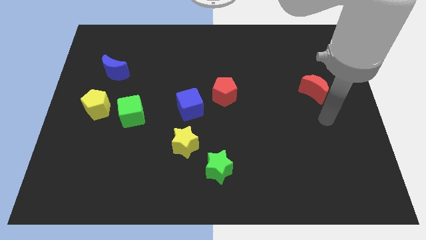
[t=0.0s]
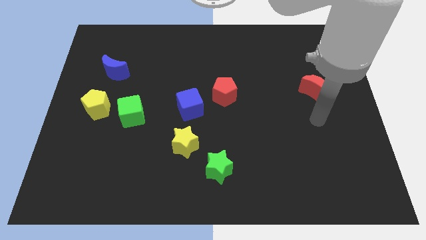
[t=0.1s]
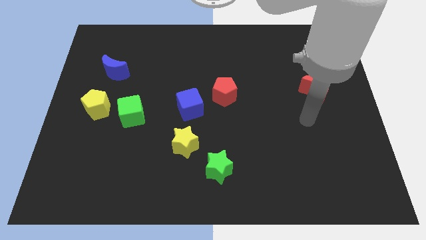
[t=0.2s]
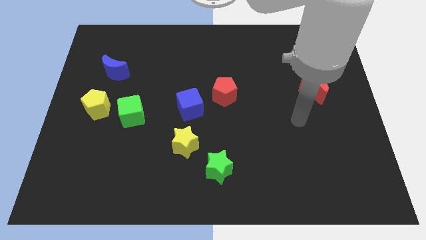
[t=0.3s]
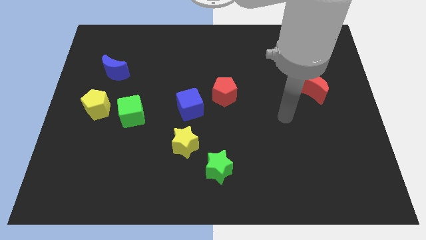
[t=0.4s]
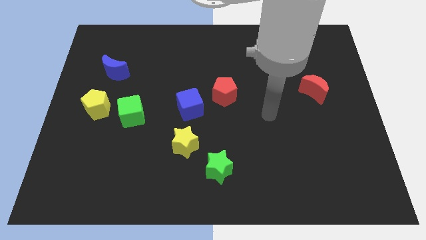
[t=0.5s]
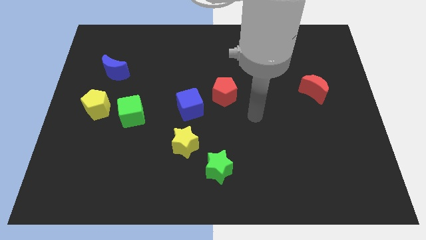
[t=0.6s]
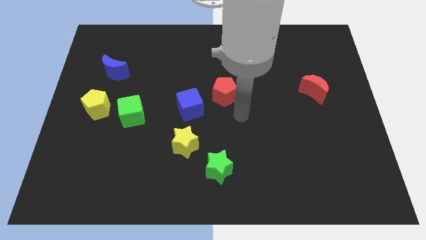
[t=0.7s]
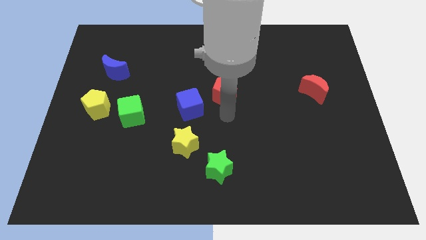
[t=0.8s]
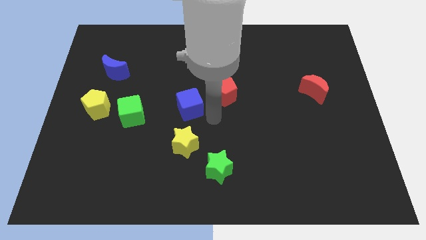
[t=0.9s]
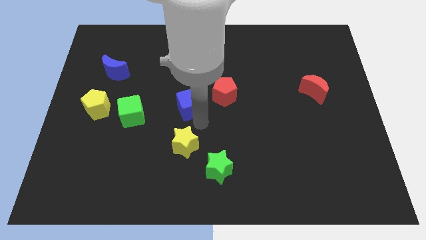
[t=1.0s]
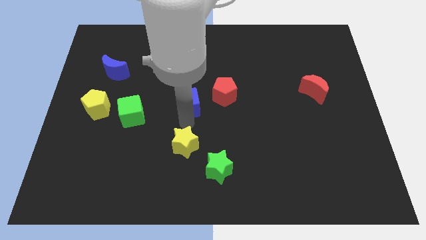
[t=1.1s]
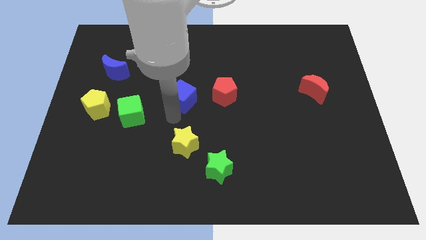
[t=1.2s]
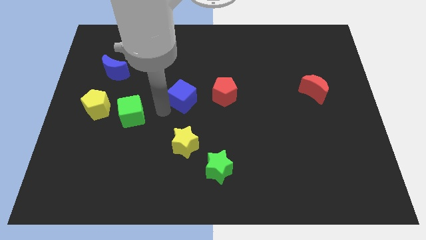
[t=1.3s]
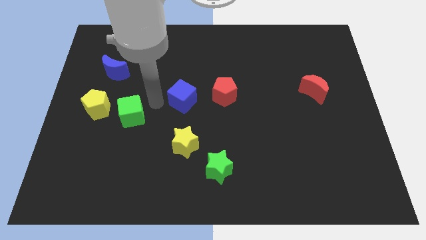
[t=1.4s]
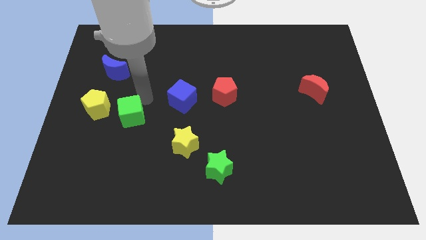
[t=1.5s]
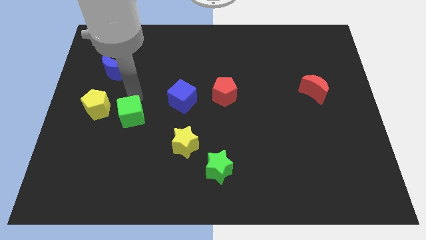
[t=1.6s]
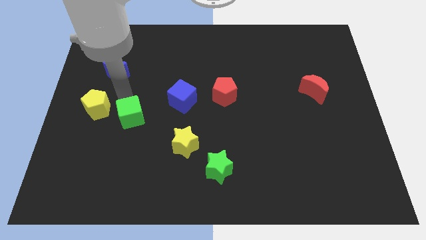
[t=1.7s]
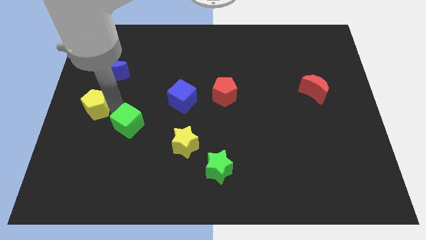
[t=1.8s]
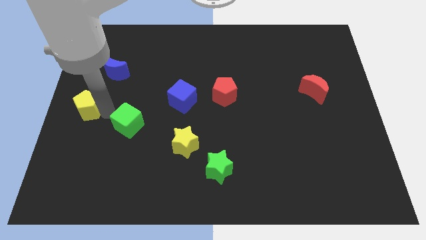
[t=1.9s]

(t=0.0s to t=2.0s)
move the green cube away from the yellow pentagon

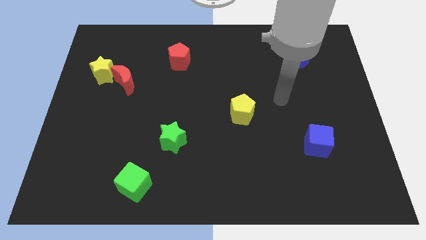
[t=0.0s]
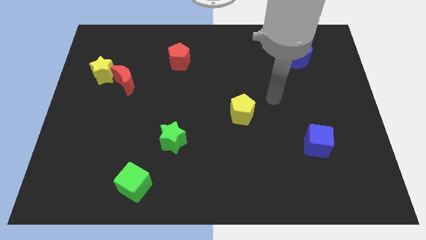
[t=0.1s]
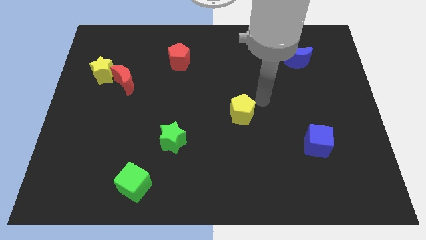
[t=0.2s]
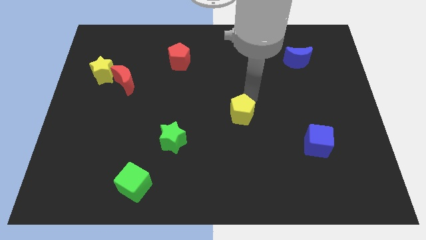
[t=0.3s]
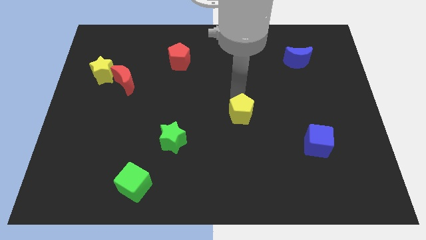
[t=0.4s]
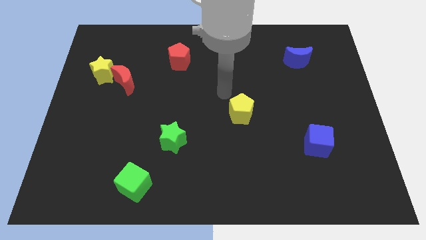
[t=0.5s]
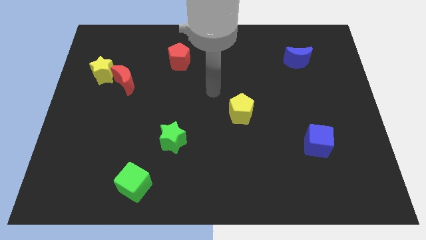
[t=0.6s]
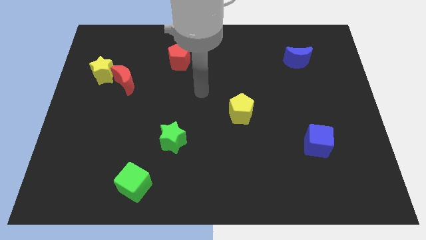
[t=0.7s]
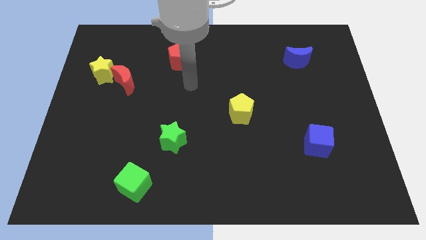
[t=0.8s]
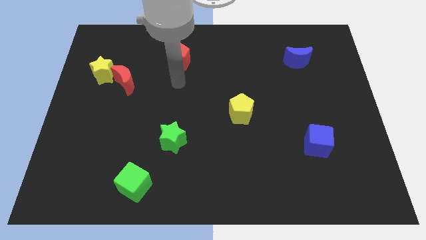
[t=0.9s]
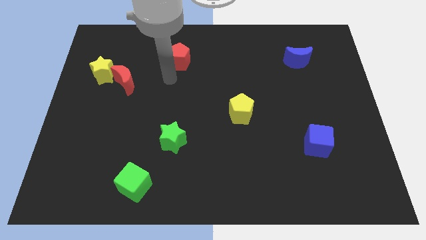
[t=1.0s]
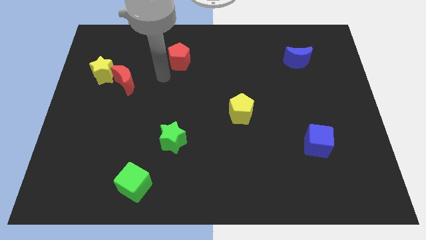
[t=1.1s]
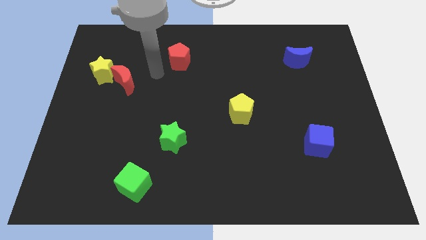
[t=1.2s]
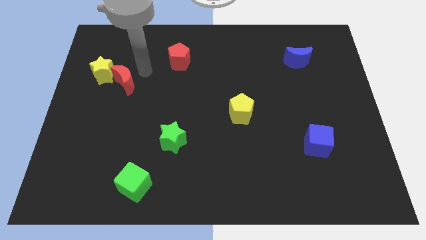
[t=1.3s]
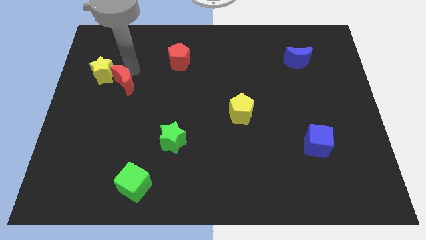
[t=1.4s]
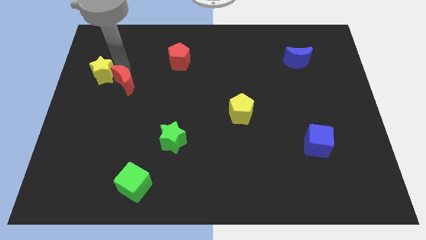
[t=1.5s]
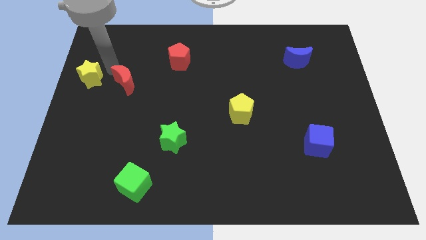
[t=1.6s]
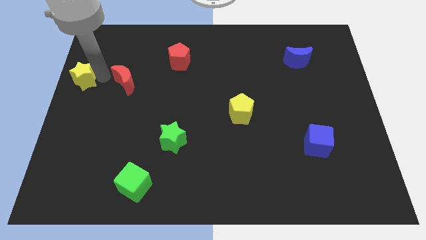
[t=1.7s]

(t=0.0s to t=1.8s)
pull the red moon apart from the yellow star

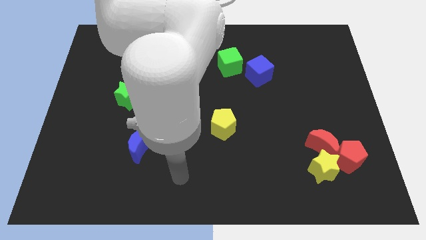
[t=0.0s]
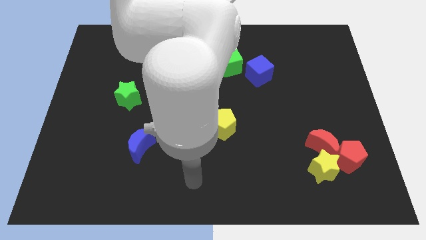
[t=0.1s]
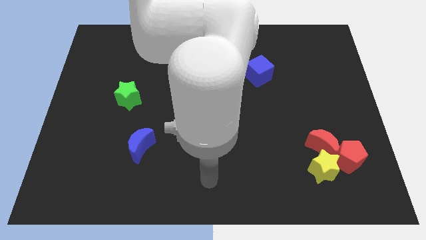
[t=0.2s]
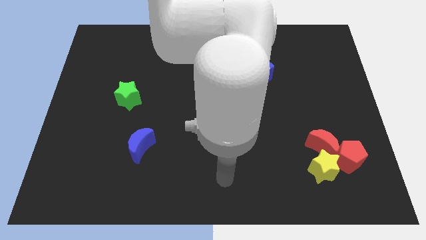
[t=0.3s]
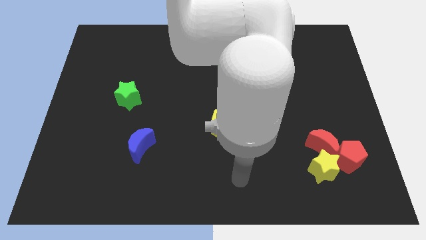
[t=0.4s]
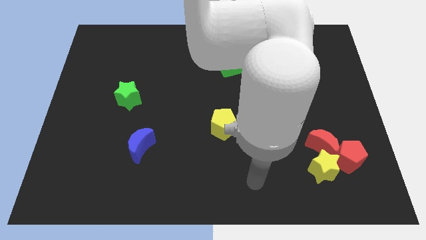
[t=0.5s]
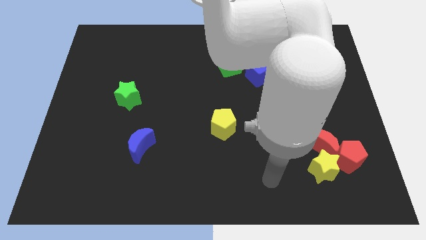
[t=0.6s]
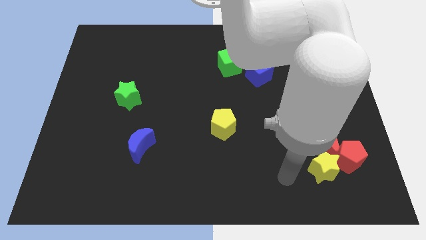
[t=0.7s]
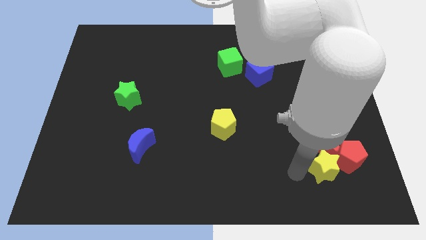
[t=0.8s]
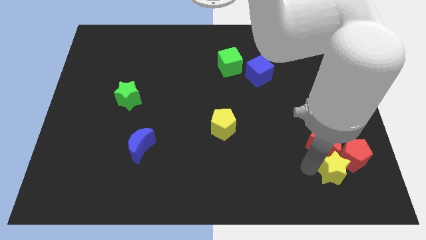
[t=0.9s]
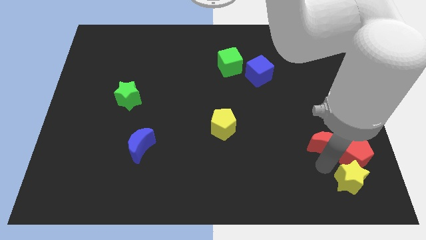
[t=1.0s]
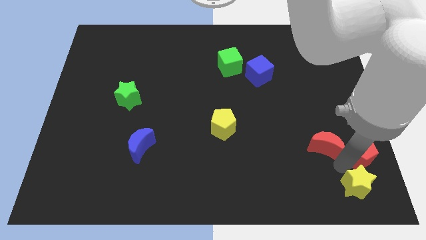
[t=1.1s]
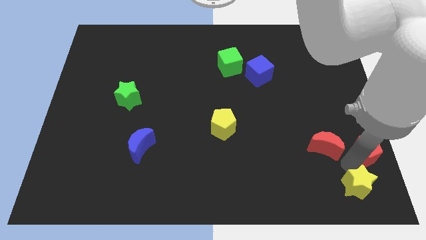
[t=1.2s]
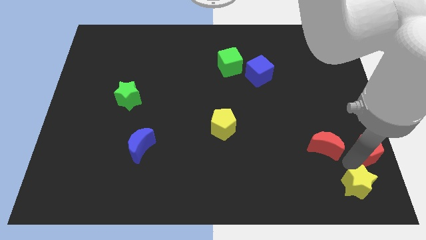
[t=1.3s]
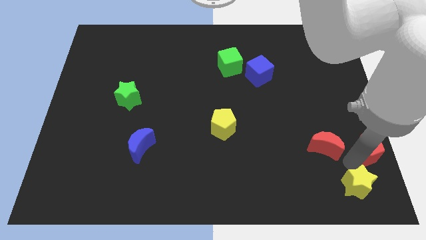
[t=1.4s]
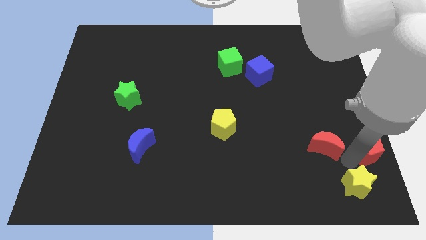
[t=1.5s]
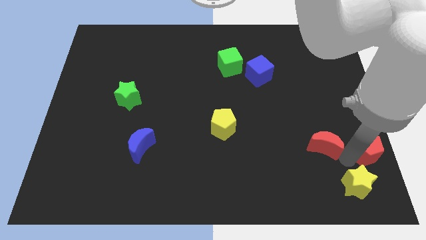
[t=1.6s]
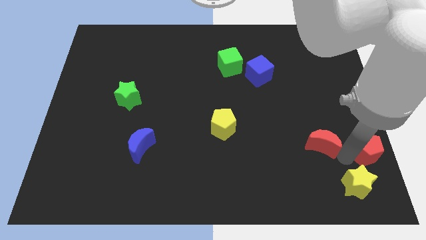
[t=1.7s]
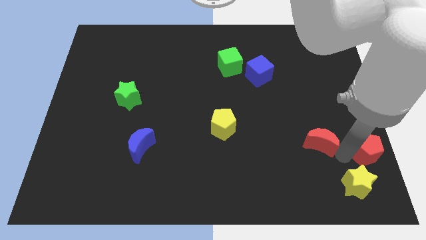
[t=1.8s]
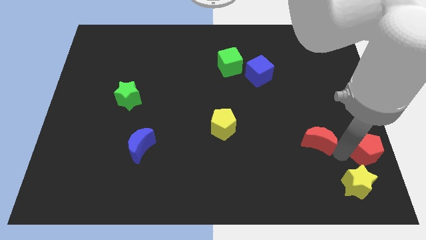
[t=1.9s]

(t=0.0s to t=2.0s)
pull the red moon apart from the yellow star and red pentagon

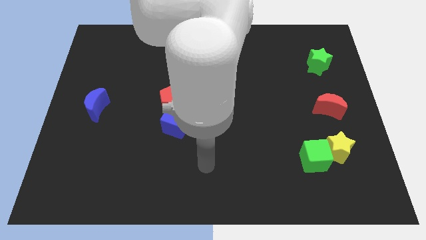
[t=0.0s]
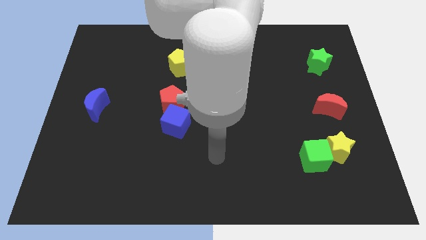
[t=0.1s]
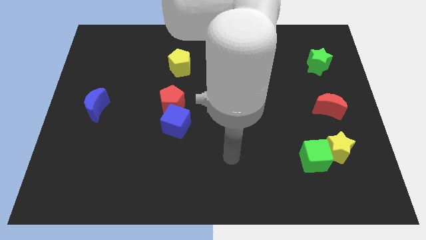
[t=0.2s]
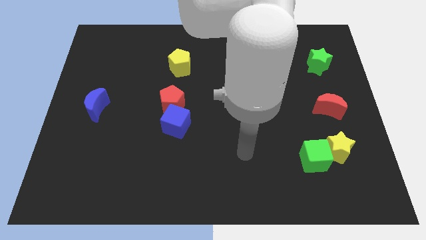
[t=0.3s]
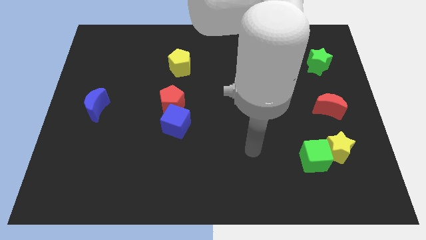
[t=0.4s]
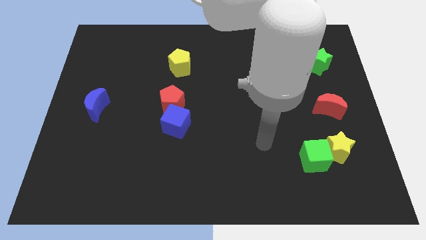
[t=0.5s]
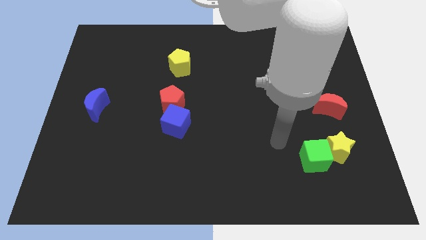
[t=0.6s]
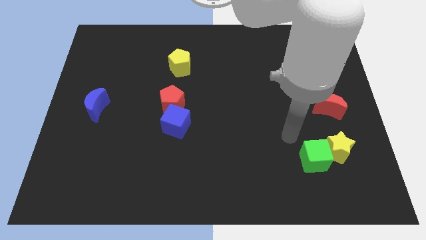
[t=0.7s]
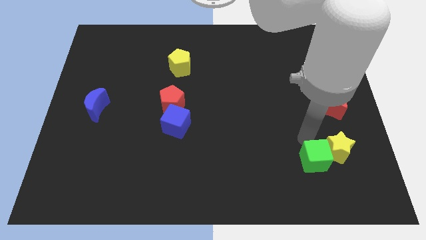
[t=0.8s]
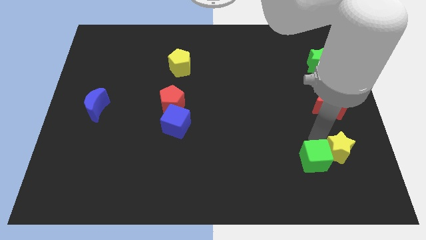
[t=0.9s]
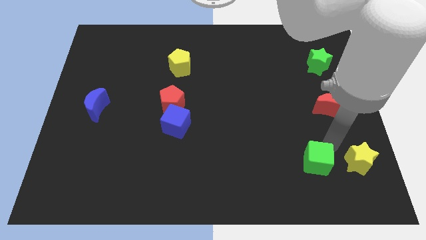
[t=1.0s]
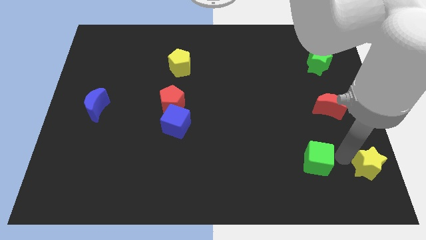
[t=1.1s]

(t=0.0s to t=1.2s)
move the green cube away from the yellow star

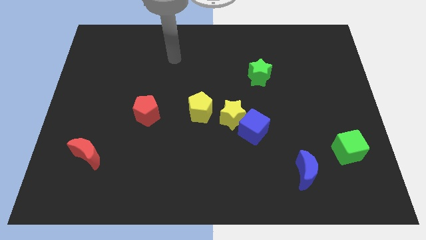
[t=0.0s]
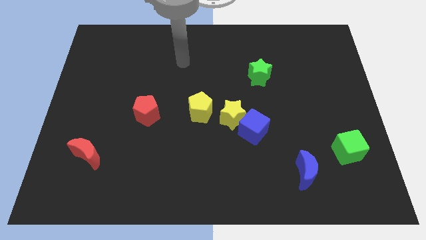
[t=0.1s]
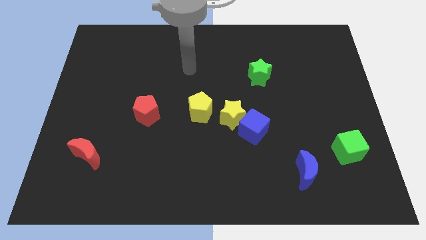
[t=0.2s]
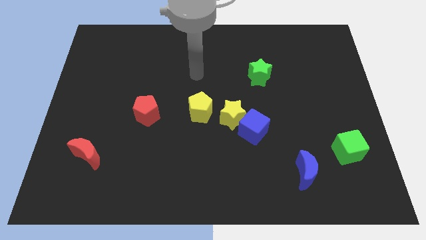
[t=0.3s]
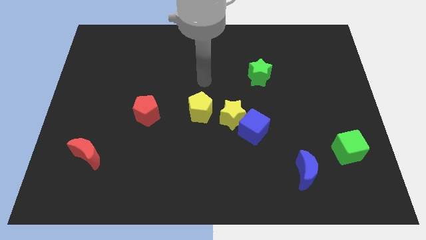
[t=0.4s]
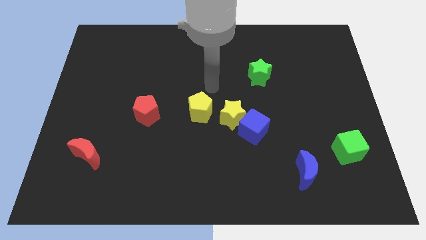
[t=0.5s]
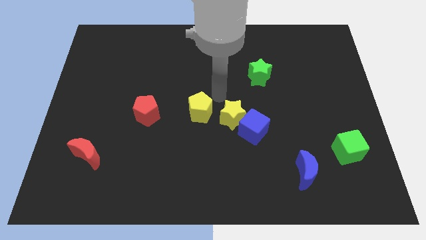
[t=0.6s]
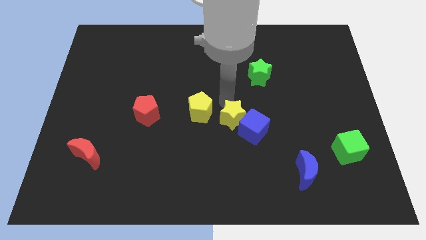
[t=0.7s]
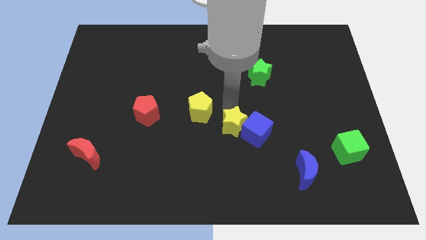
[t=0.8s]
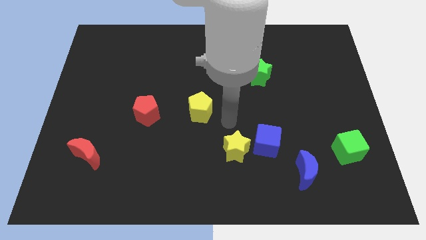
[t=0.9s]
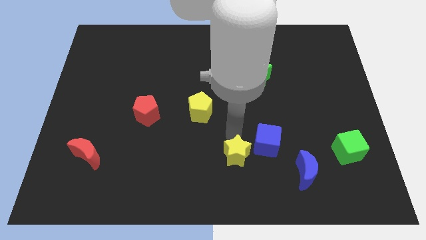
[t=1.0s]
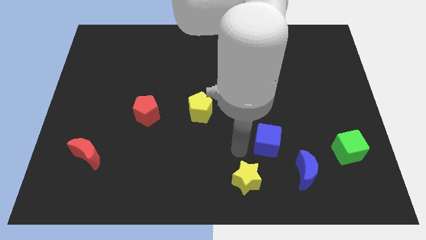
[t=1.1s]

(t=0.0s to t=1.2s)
separate the blue cube from the yellow star

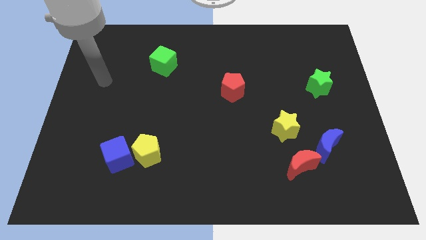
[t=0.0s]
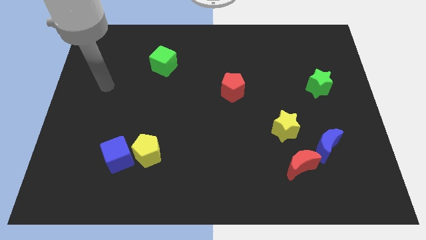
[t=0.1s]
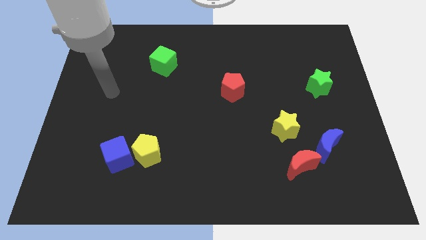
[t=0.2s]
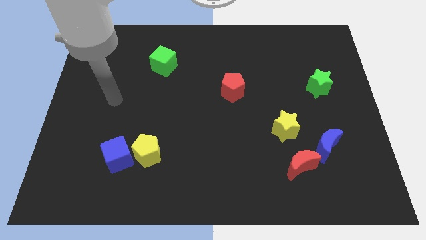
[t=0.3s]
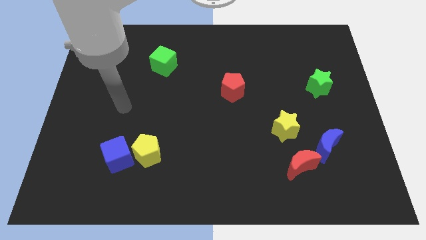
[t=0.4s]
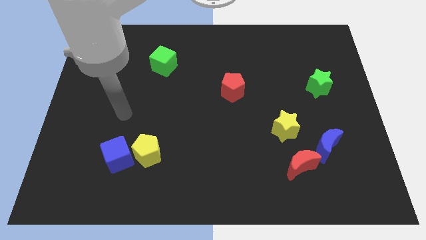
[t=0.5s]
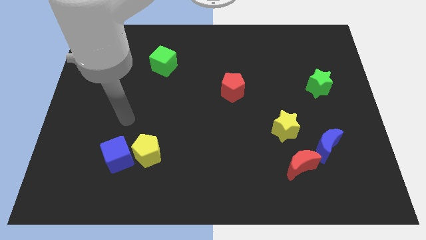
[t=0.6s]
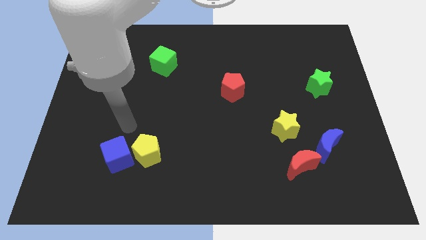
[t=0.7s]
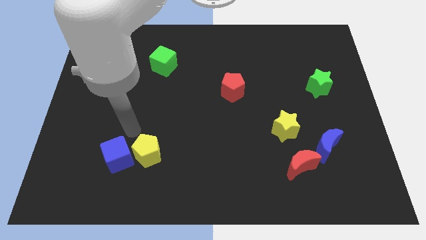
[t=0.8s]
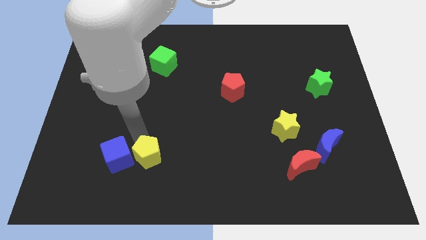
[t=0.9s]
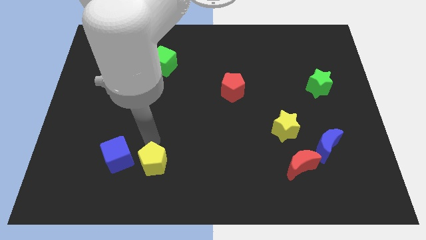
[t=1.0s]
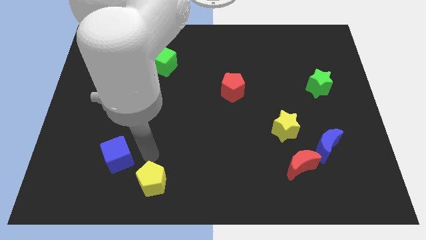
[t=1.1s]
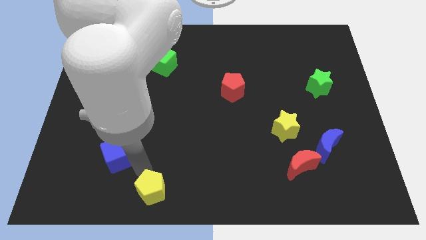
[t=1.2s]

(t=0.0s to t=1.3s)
pull the blue cube apart from the yellow pentagon
